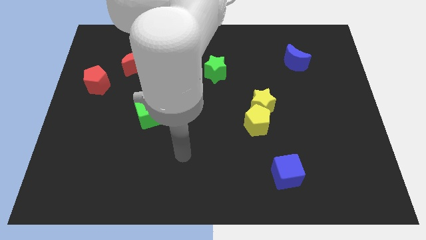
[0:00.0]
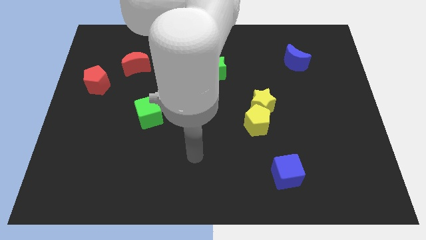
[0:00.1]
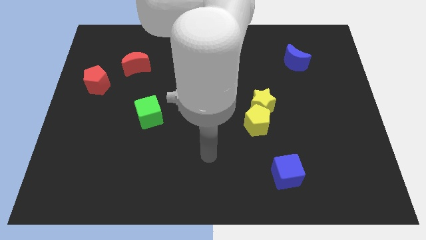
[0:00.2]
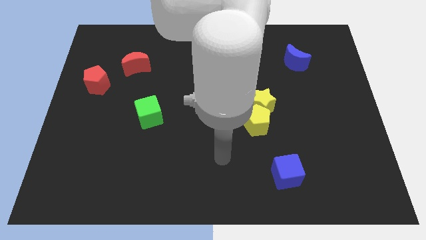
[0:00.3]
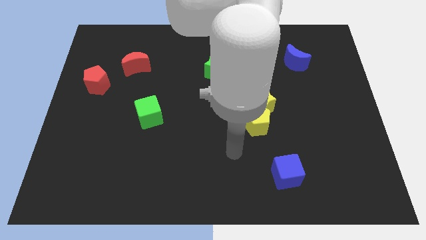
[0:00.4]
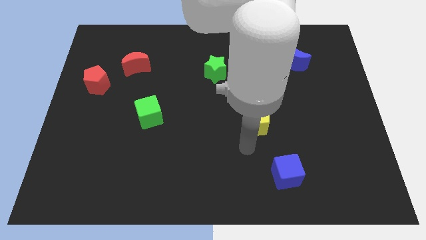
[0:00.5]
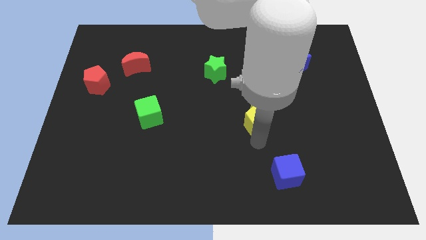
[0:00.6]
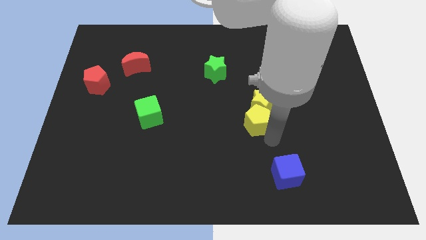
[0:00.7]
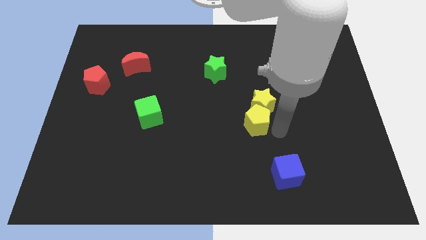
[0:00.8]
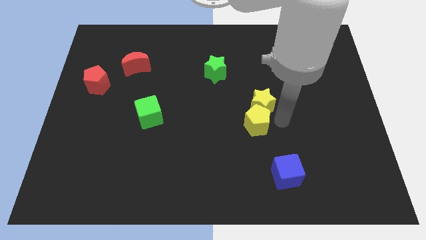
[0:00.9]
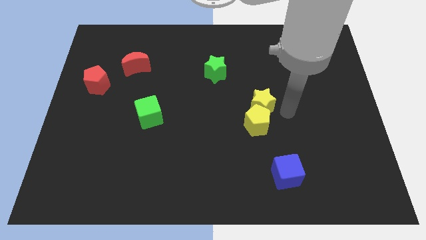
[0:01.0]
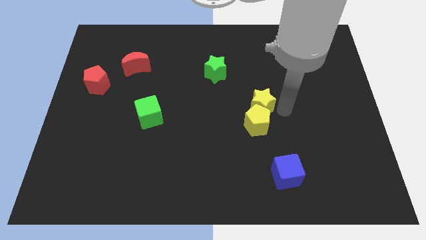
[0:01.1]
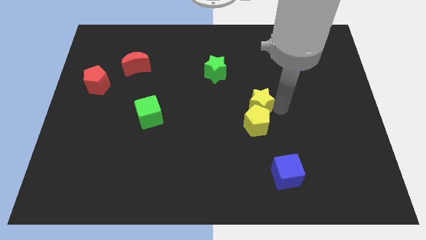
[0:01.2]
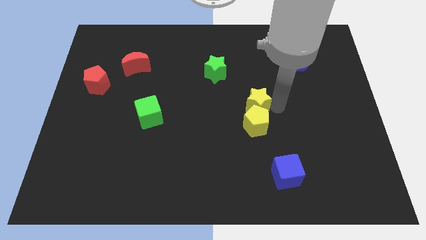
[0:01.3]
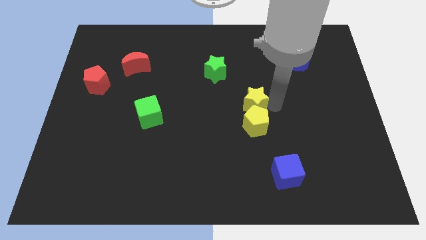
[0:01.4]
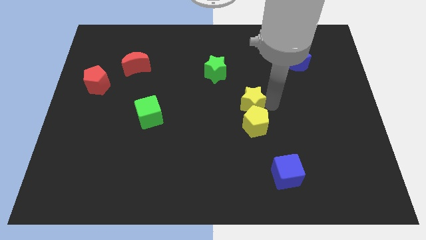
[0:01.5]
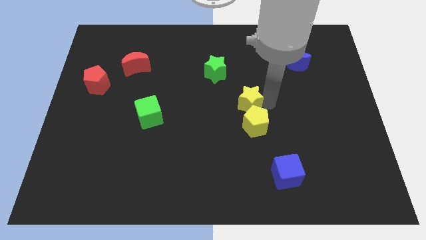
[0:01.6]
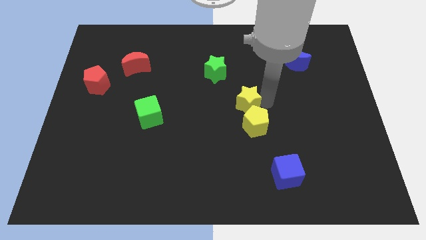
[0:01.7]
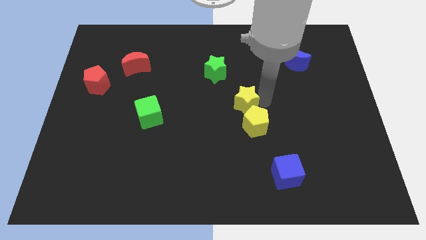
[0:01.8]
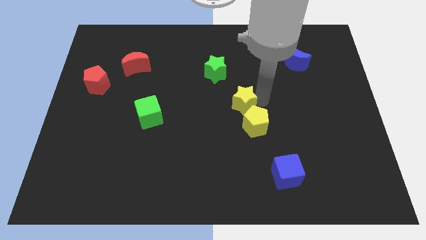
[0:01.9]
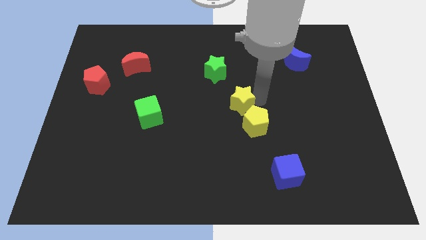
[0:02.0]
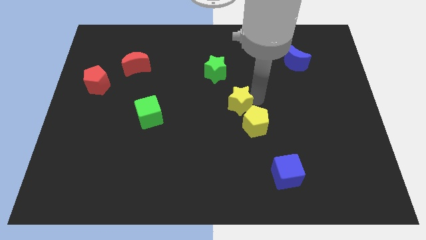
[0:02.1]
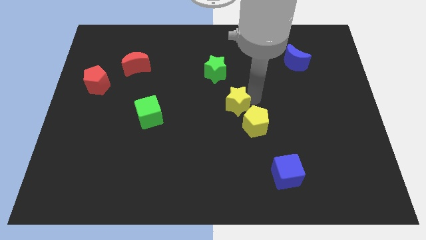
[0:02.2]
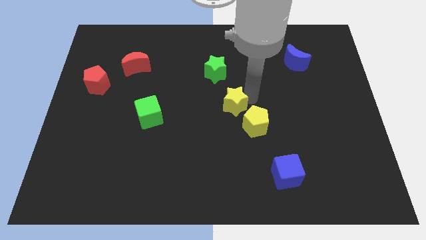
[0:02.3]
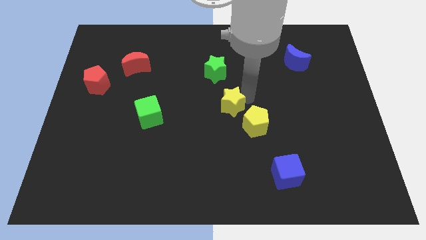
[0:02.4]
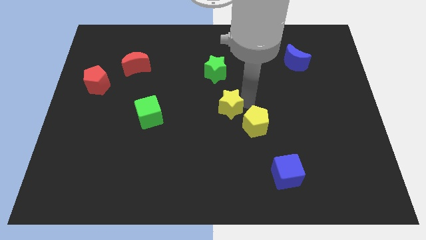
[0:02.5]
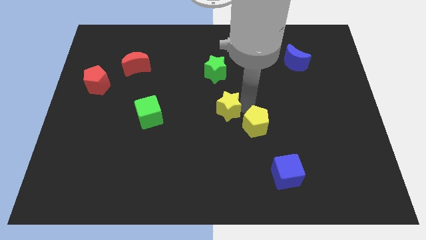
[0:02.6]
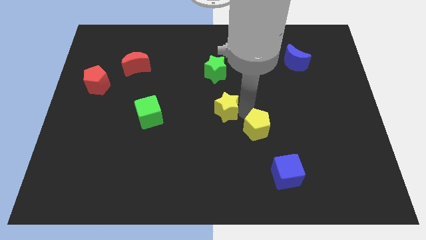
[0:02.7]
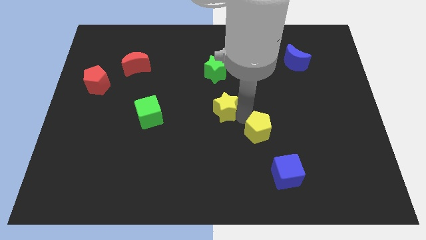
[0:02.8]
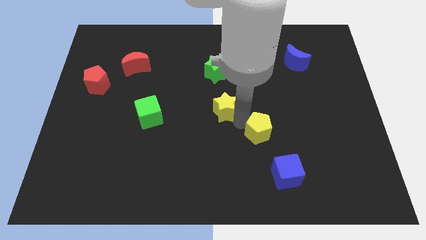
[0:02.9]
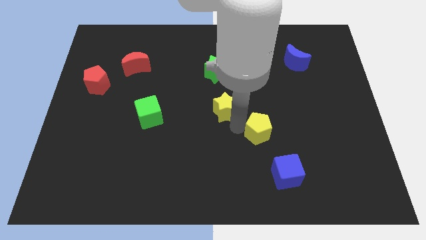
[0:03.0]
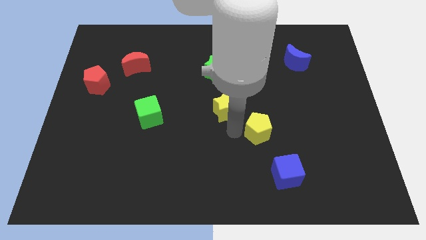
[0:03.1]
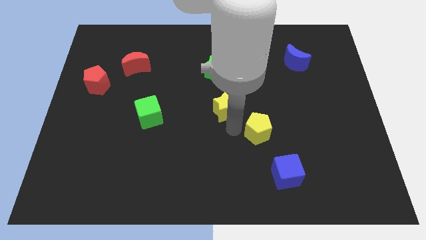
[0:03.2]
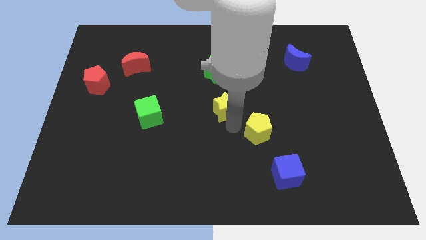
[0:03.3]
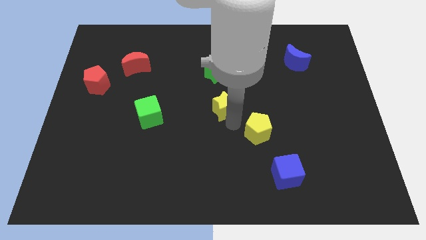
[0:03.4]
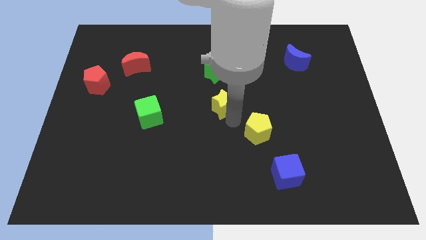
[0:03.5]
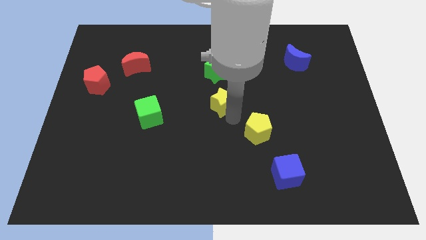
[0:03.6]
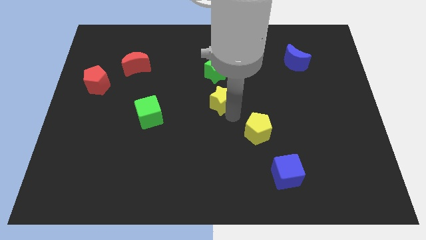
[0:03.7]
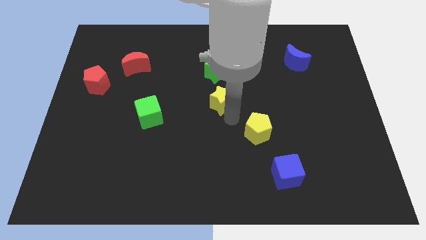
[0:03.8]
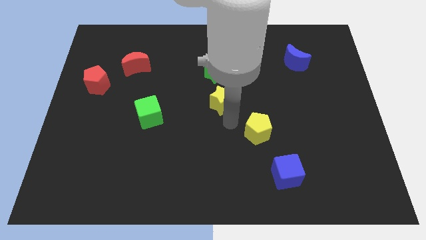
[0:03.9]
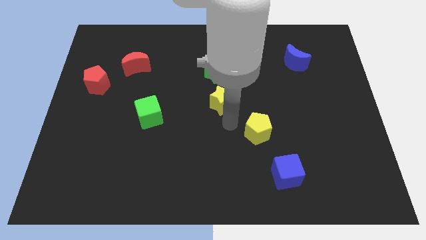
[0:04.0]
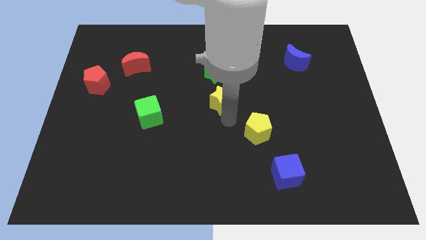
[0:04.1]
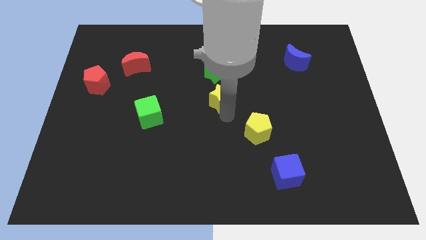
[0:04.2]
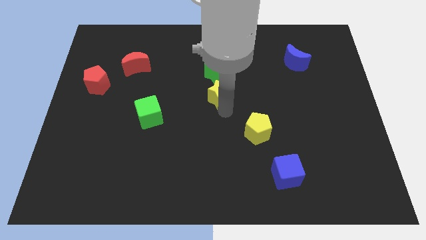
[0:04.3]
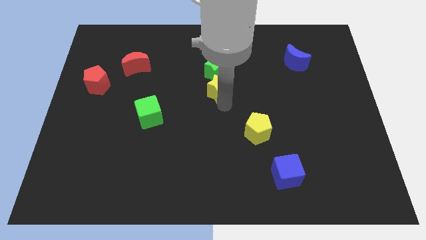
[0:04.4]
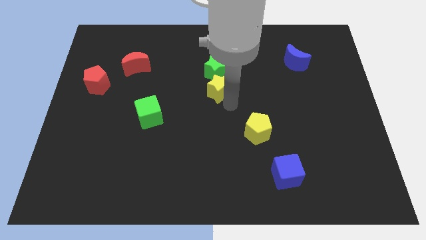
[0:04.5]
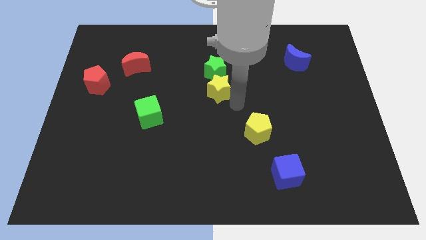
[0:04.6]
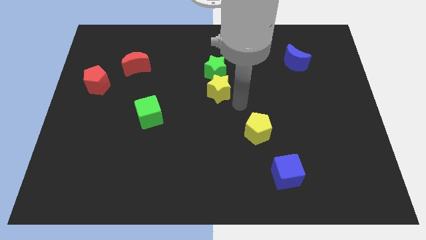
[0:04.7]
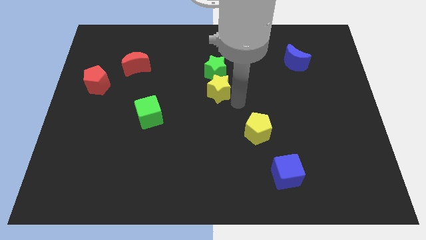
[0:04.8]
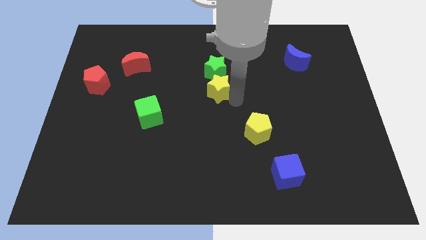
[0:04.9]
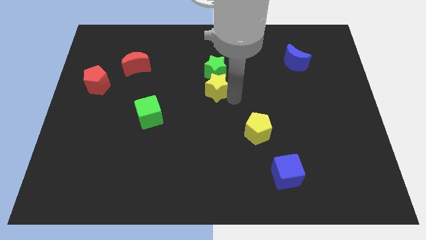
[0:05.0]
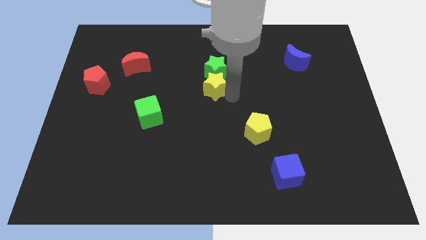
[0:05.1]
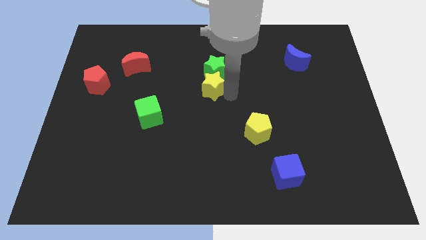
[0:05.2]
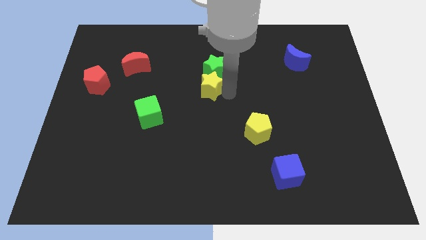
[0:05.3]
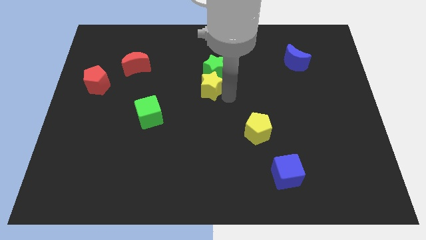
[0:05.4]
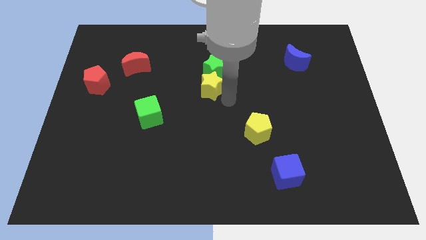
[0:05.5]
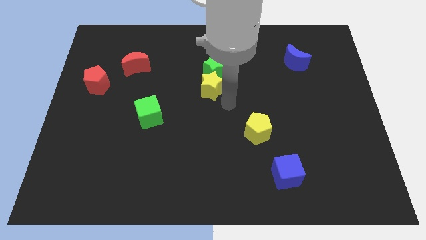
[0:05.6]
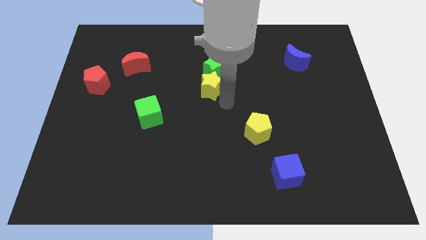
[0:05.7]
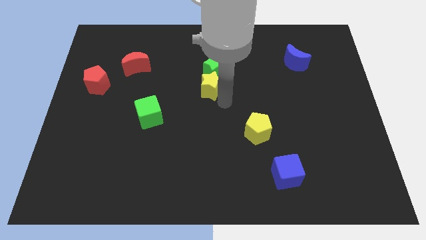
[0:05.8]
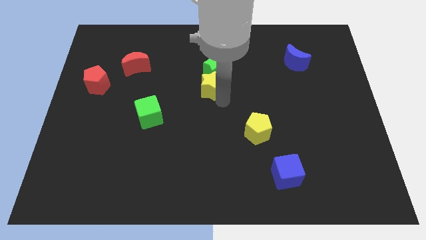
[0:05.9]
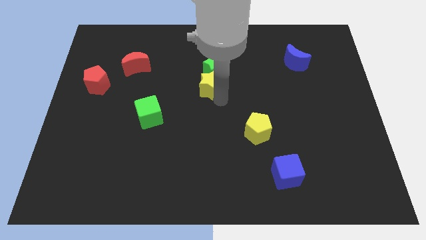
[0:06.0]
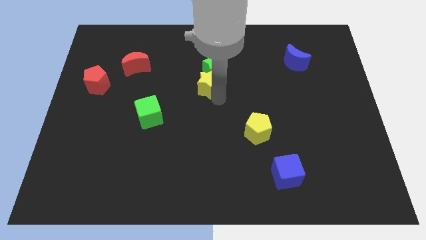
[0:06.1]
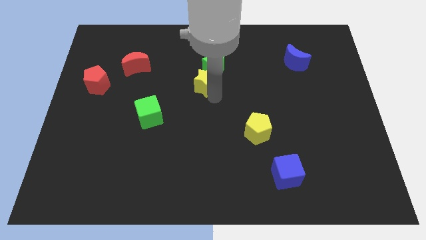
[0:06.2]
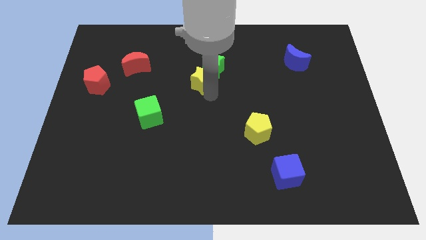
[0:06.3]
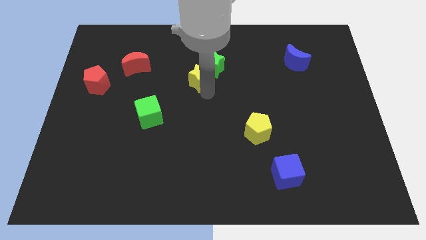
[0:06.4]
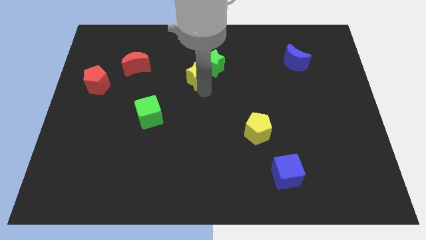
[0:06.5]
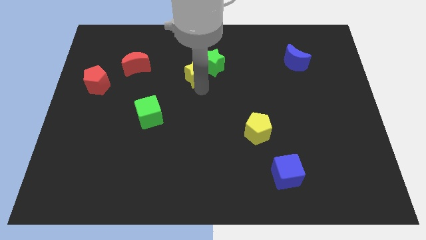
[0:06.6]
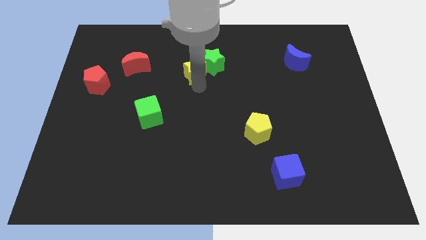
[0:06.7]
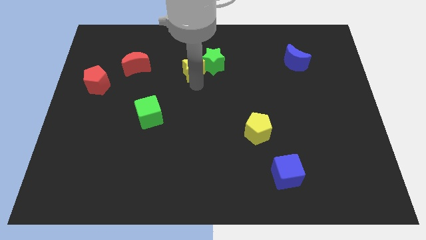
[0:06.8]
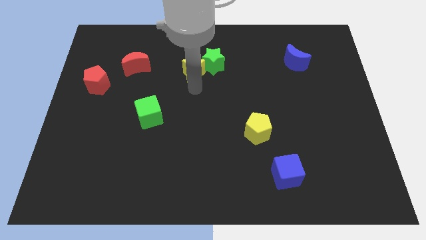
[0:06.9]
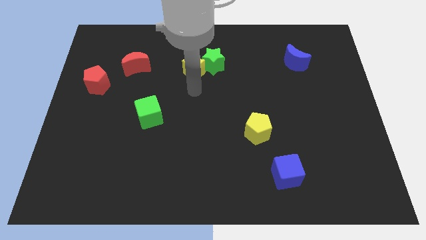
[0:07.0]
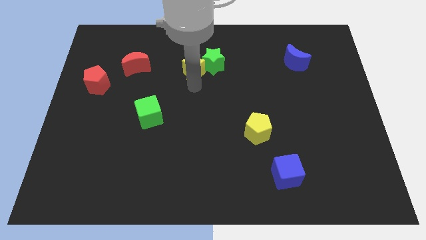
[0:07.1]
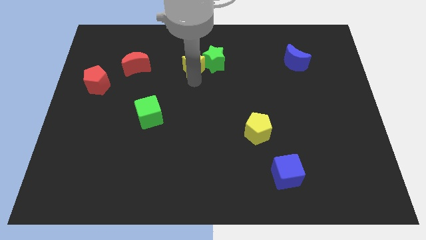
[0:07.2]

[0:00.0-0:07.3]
put the yellow star to the top left side of the green star
